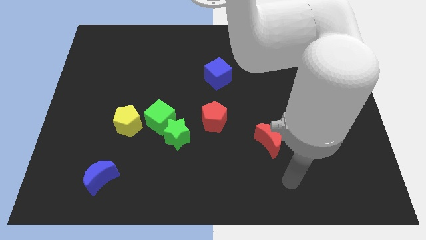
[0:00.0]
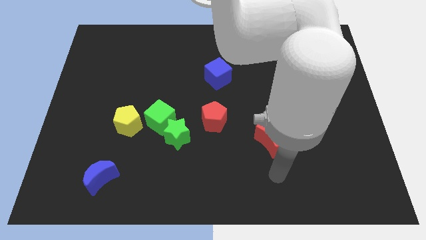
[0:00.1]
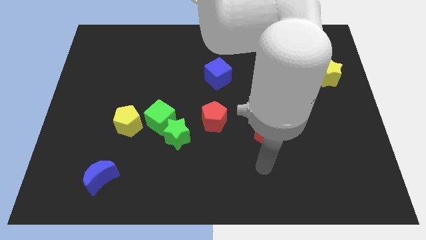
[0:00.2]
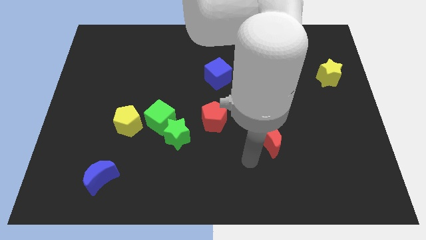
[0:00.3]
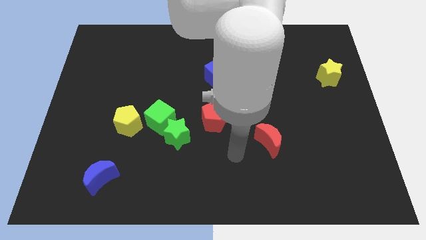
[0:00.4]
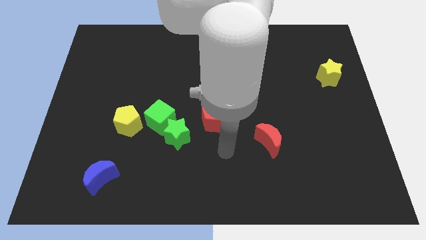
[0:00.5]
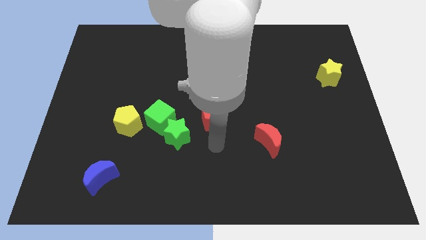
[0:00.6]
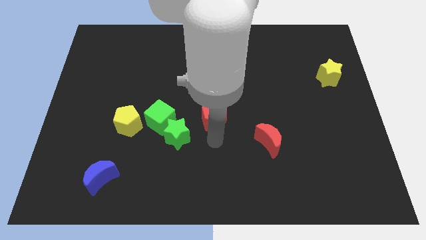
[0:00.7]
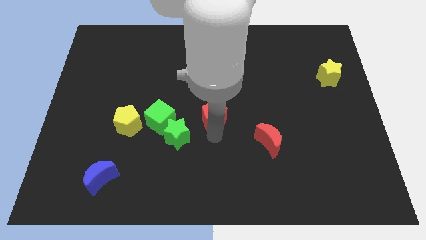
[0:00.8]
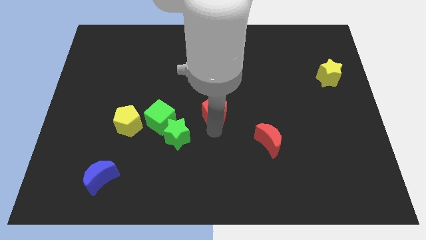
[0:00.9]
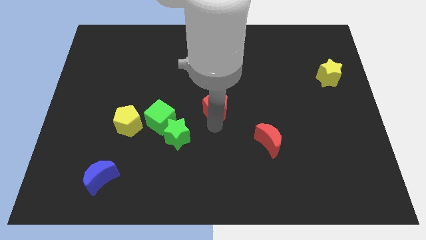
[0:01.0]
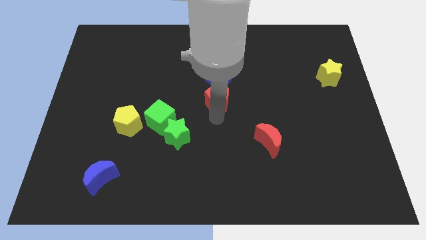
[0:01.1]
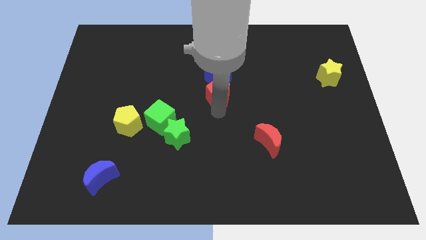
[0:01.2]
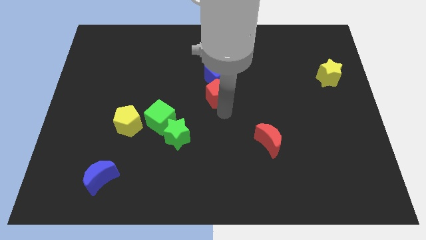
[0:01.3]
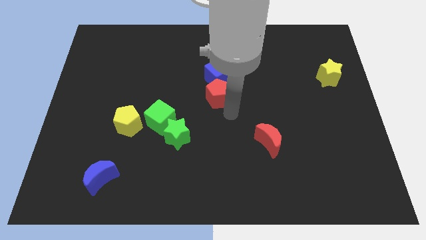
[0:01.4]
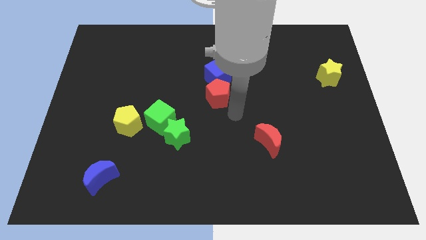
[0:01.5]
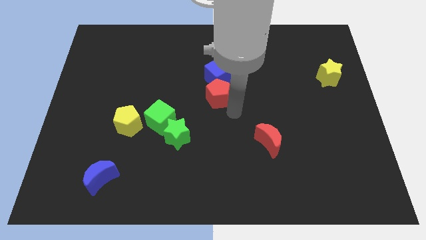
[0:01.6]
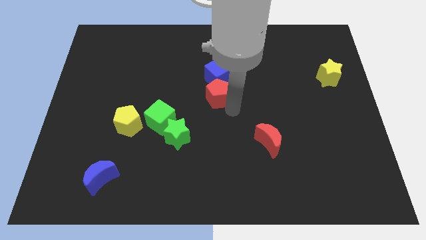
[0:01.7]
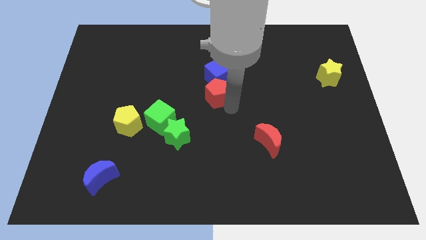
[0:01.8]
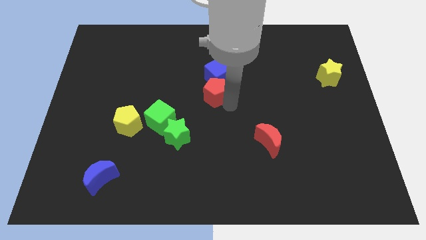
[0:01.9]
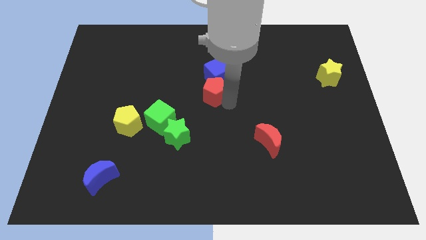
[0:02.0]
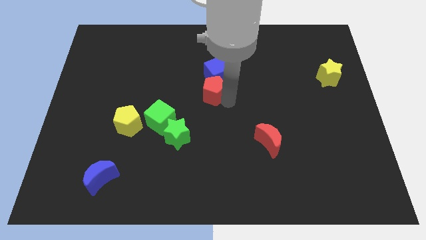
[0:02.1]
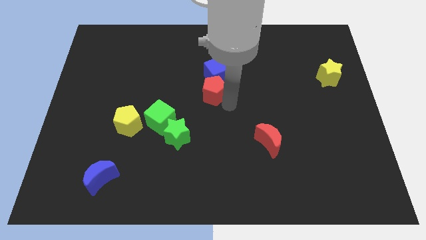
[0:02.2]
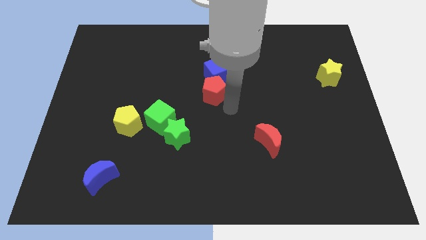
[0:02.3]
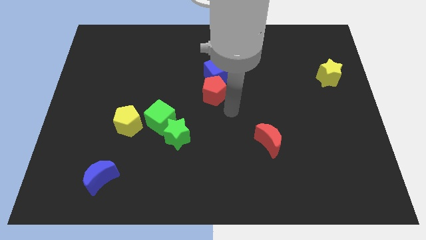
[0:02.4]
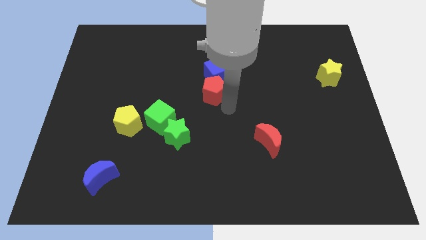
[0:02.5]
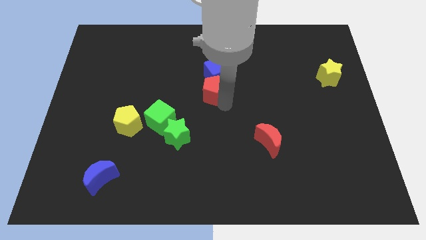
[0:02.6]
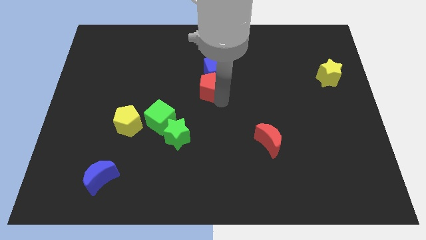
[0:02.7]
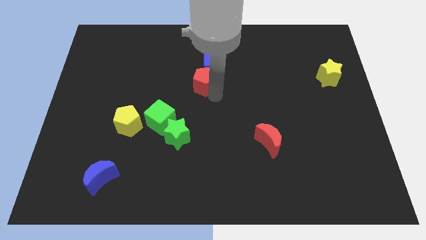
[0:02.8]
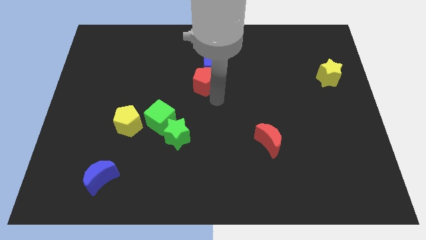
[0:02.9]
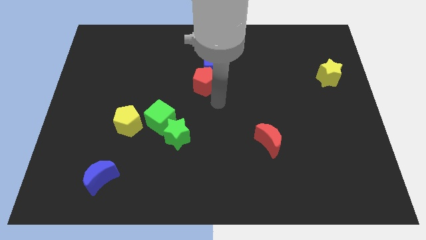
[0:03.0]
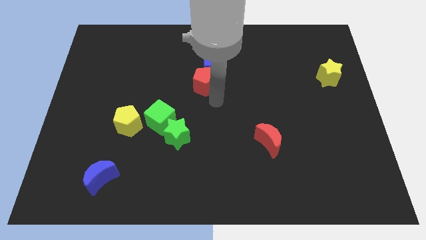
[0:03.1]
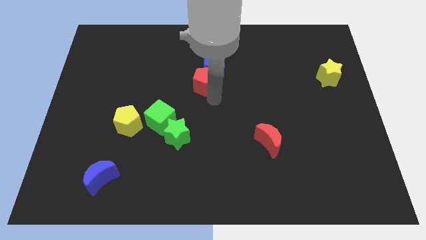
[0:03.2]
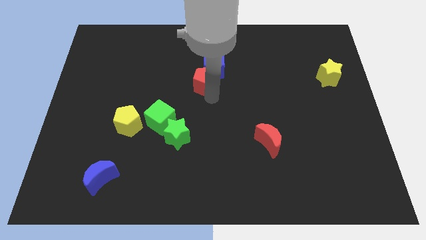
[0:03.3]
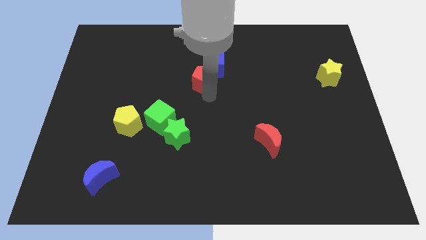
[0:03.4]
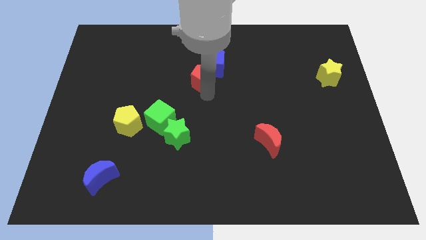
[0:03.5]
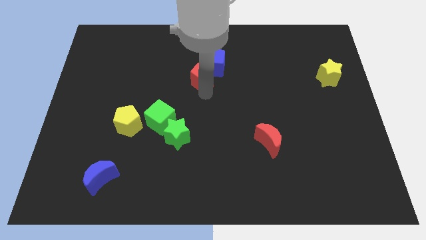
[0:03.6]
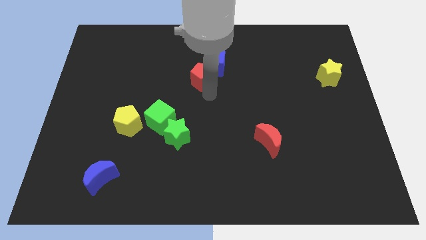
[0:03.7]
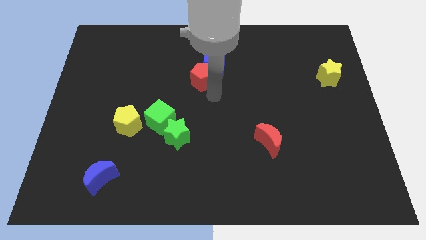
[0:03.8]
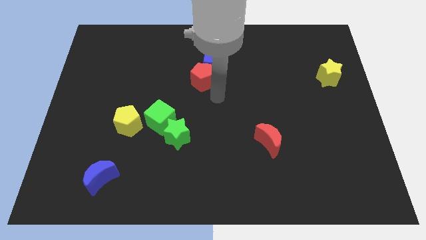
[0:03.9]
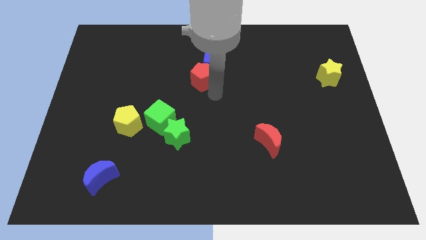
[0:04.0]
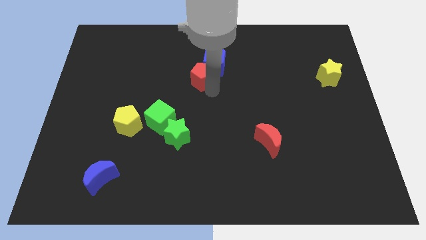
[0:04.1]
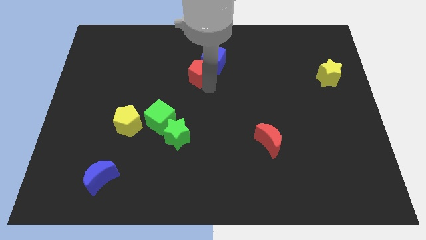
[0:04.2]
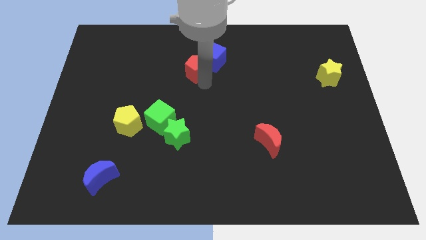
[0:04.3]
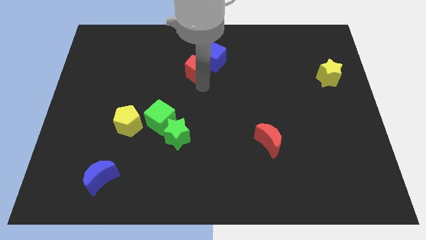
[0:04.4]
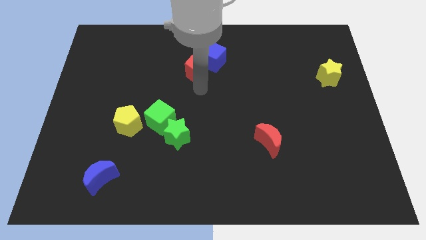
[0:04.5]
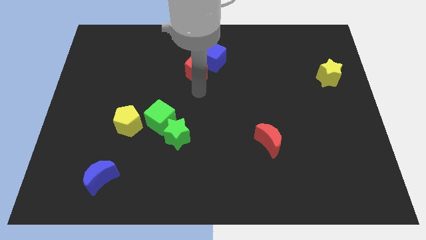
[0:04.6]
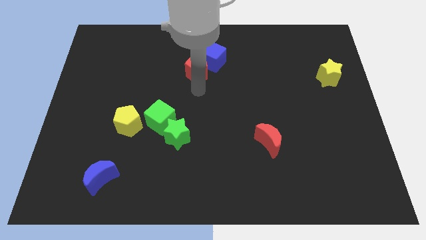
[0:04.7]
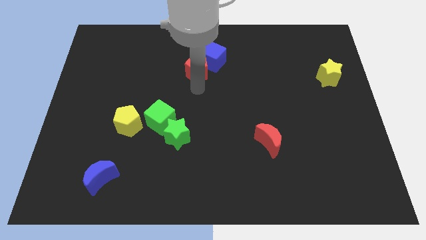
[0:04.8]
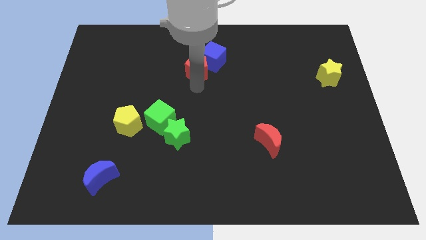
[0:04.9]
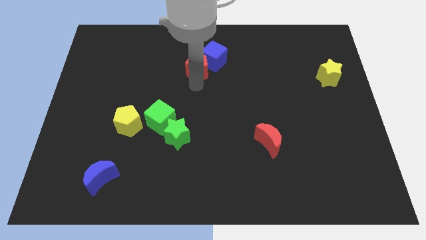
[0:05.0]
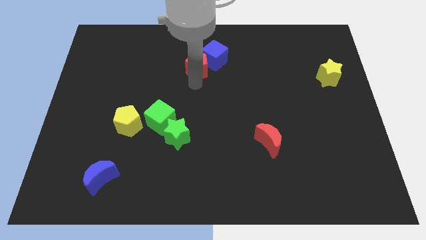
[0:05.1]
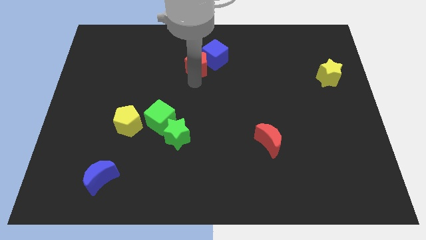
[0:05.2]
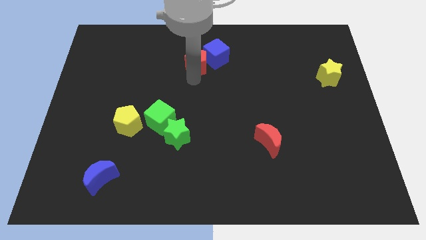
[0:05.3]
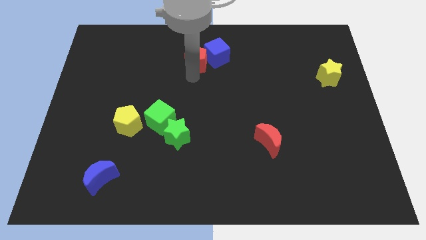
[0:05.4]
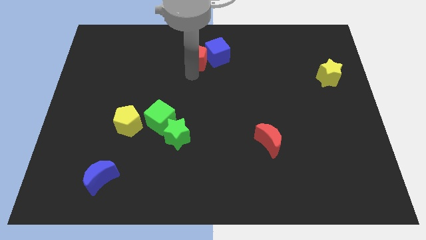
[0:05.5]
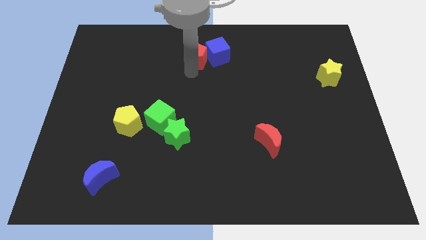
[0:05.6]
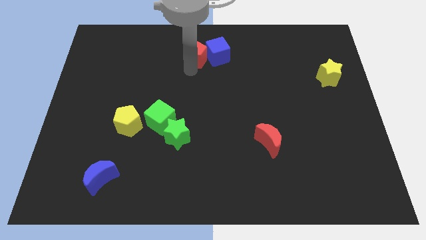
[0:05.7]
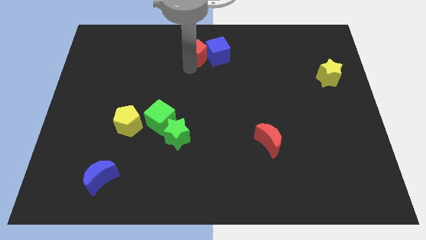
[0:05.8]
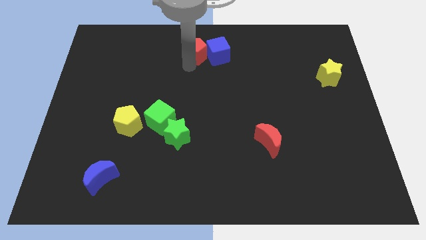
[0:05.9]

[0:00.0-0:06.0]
push the red pentagon to the towards your base
